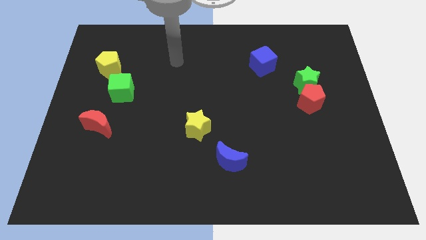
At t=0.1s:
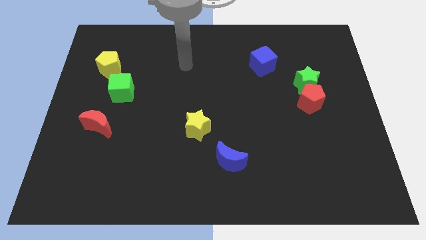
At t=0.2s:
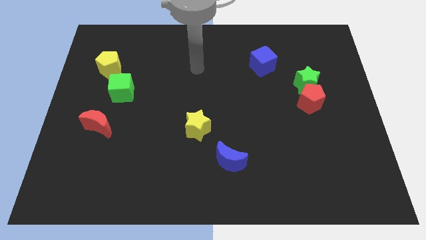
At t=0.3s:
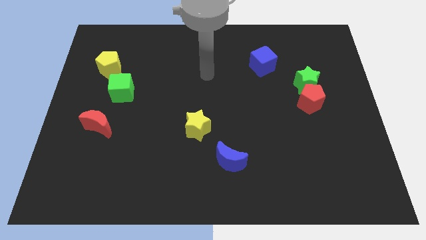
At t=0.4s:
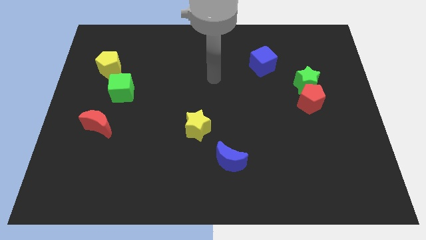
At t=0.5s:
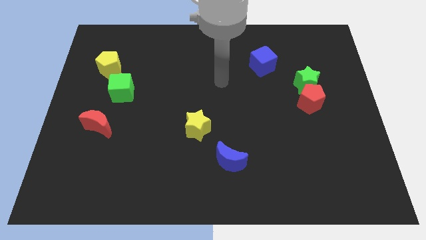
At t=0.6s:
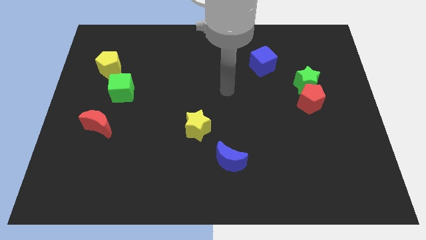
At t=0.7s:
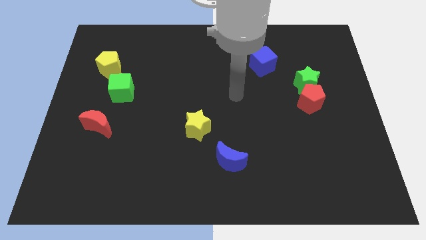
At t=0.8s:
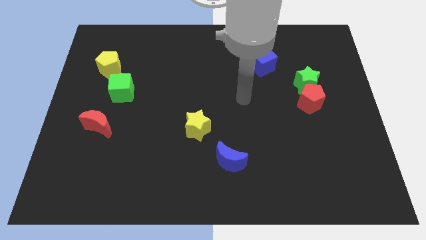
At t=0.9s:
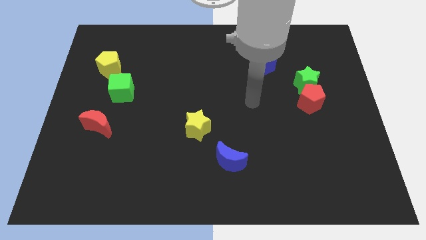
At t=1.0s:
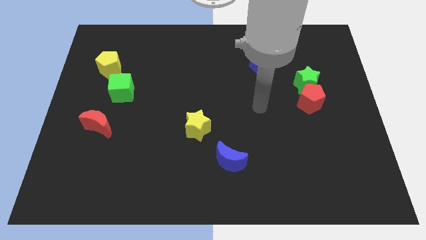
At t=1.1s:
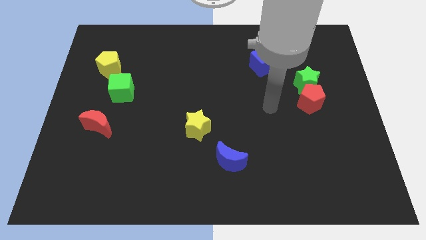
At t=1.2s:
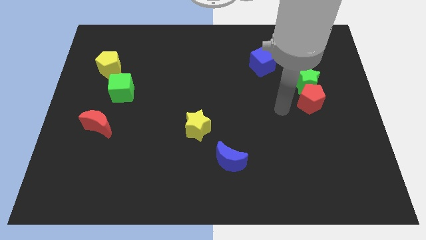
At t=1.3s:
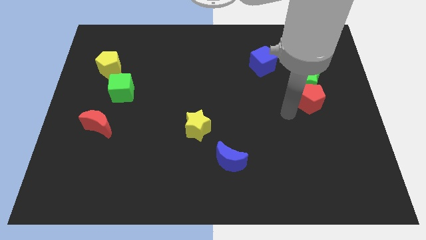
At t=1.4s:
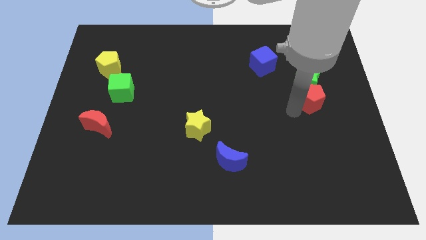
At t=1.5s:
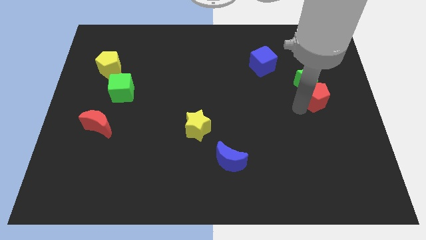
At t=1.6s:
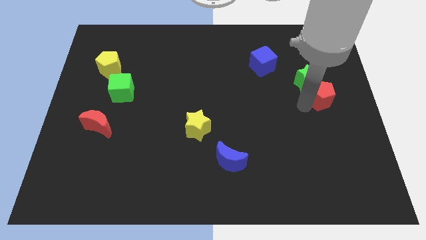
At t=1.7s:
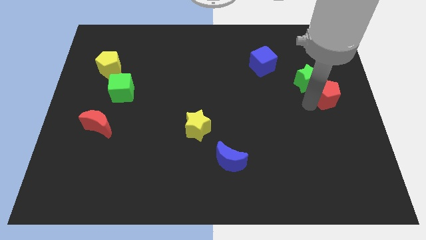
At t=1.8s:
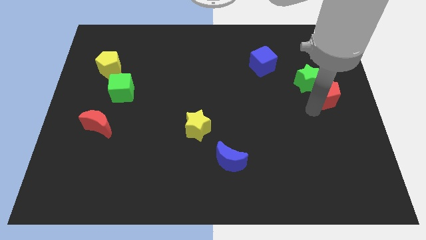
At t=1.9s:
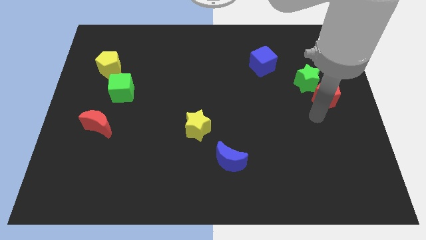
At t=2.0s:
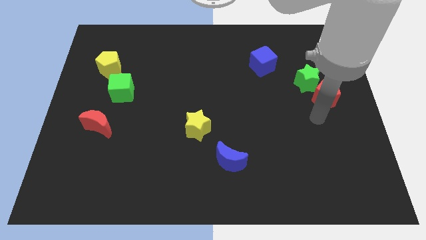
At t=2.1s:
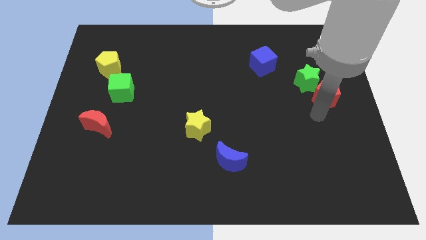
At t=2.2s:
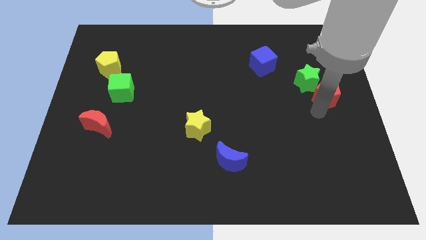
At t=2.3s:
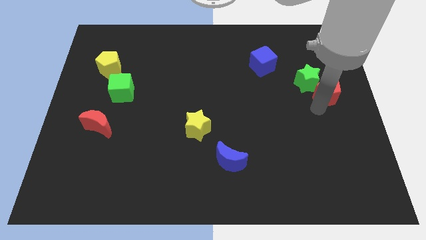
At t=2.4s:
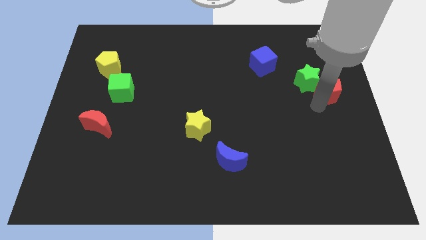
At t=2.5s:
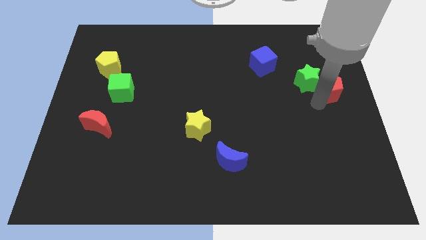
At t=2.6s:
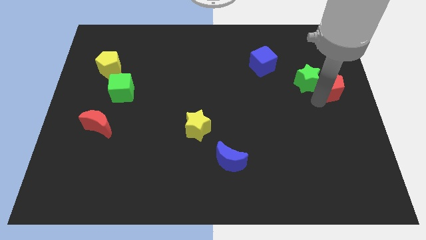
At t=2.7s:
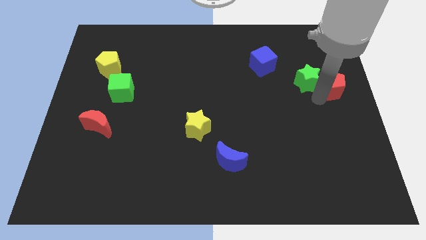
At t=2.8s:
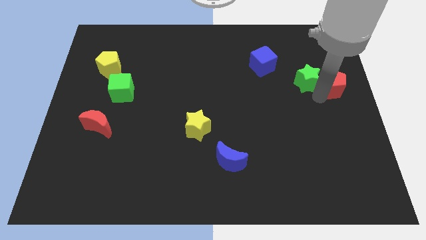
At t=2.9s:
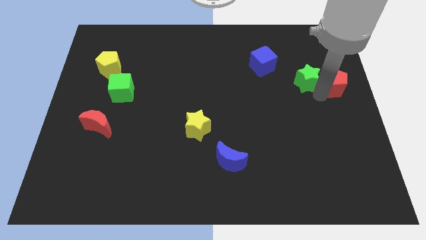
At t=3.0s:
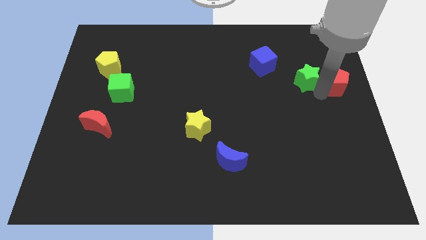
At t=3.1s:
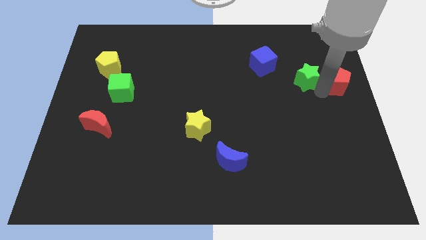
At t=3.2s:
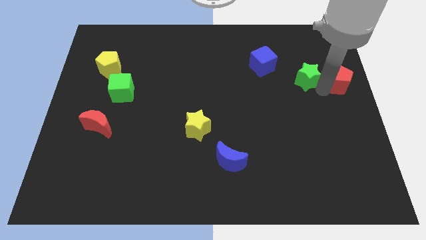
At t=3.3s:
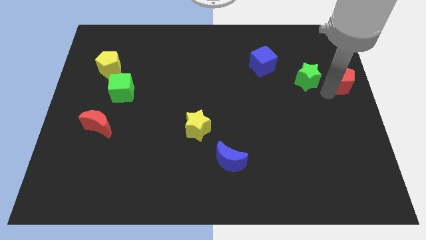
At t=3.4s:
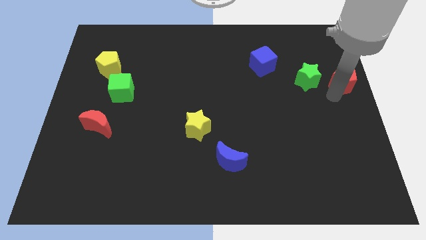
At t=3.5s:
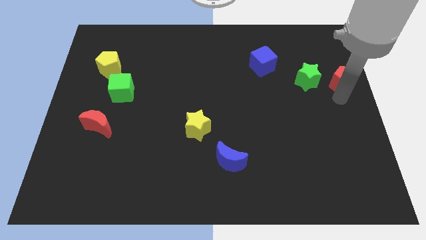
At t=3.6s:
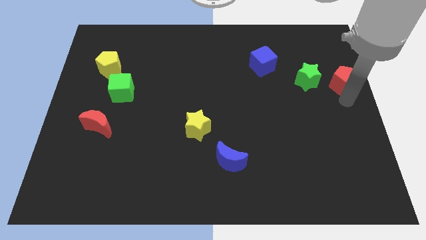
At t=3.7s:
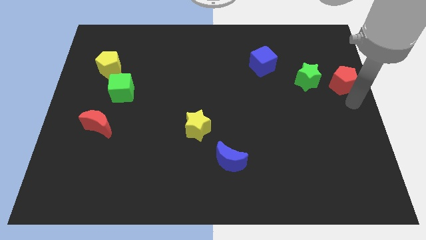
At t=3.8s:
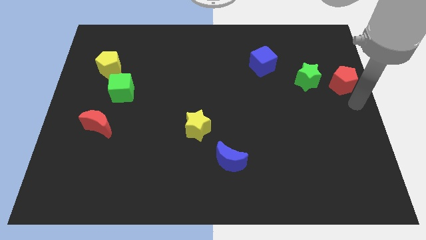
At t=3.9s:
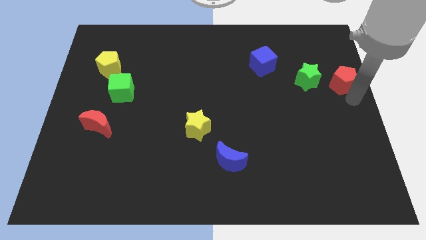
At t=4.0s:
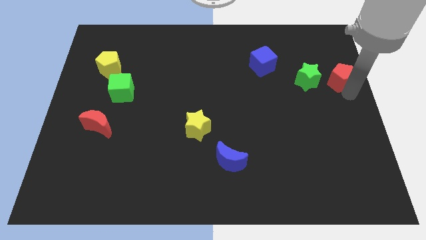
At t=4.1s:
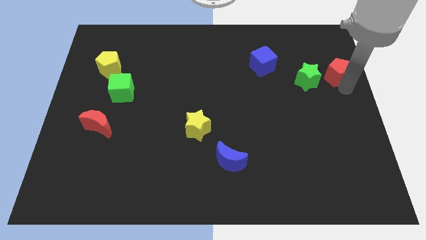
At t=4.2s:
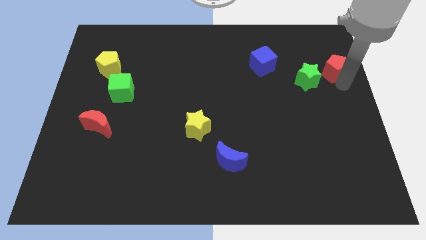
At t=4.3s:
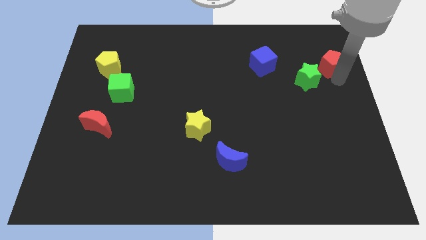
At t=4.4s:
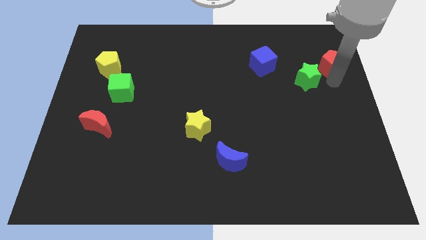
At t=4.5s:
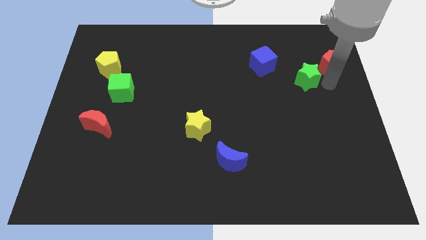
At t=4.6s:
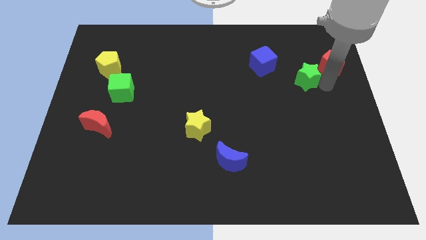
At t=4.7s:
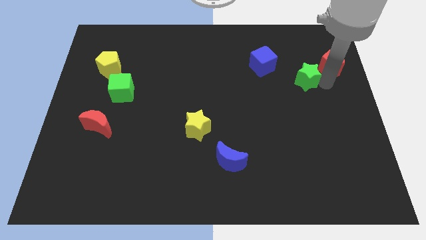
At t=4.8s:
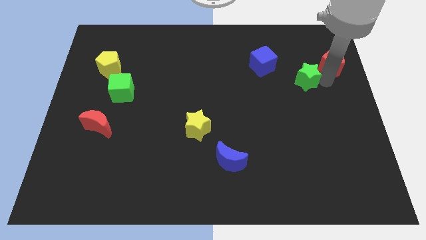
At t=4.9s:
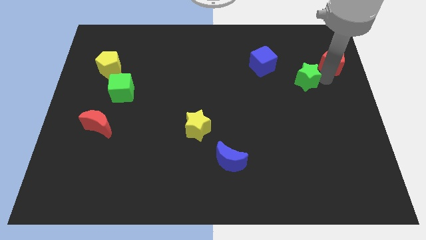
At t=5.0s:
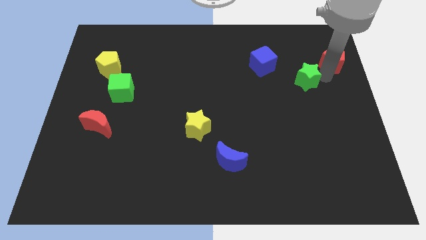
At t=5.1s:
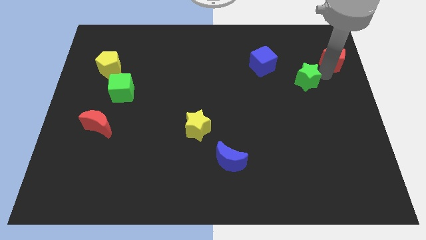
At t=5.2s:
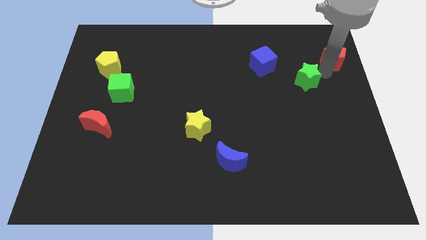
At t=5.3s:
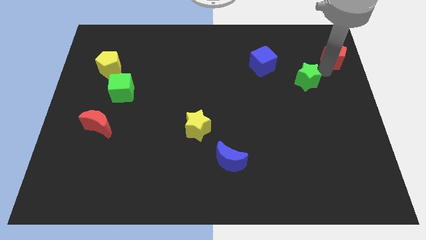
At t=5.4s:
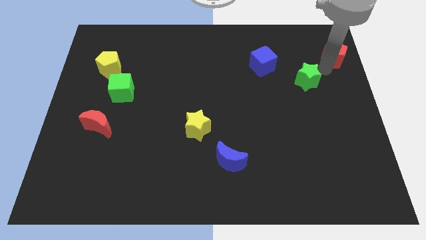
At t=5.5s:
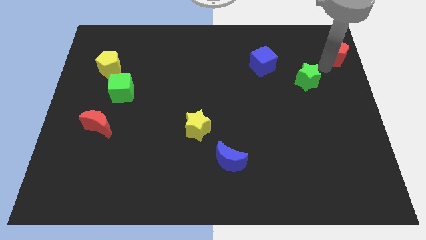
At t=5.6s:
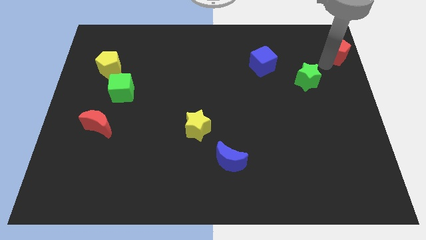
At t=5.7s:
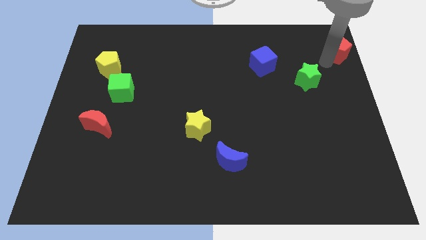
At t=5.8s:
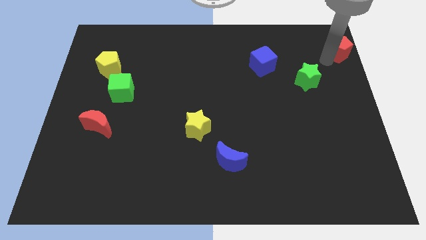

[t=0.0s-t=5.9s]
push the red pentagon to the top right of the board
